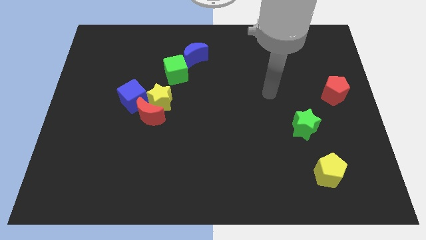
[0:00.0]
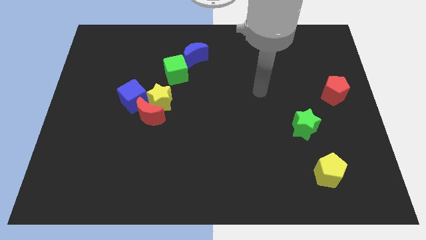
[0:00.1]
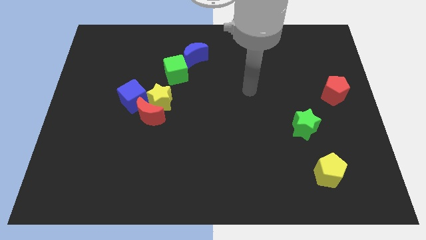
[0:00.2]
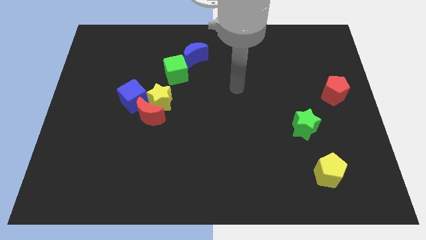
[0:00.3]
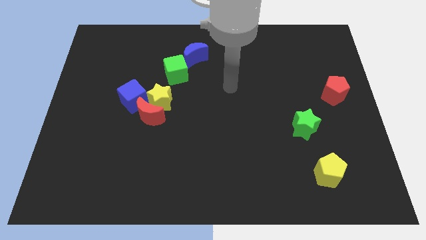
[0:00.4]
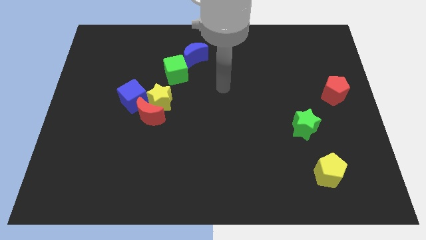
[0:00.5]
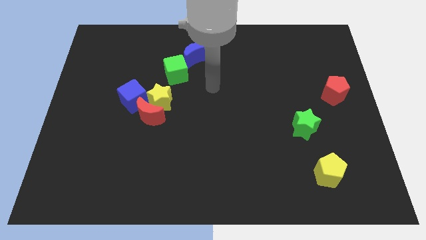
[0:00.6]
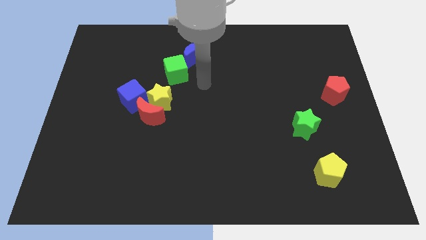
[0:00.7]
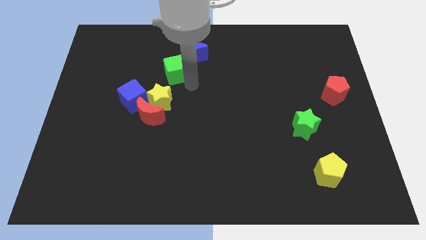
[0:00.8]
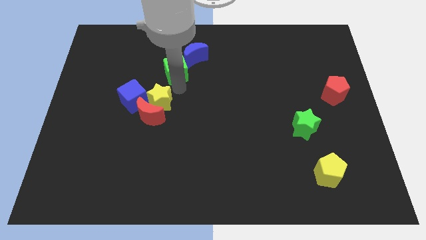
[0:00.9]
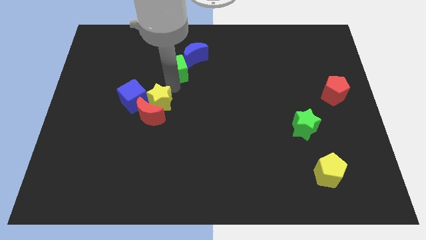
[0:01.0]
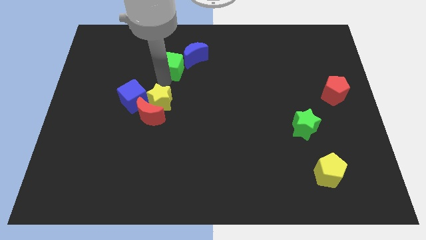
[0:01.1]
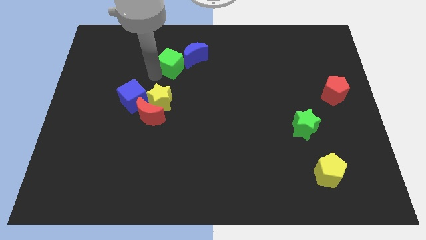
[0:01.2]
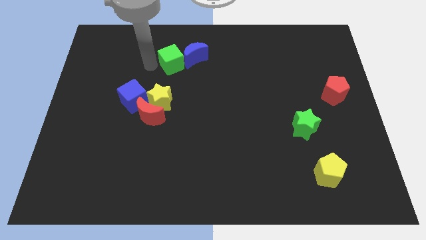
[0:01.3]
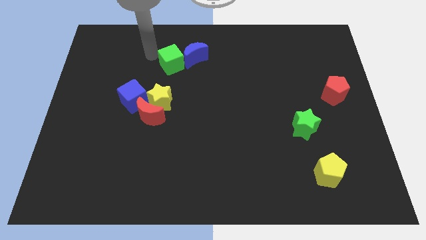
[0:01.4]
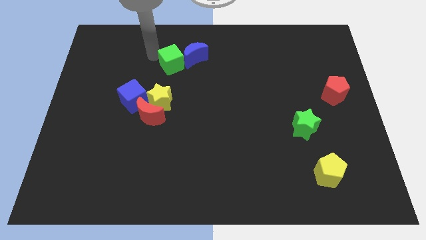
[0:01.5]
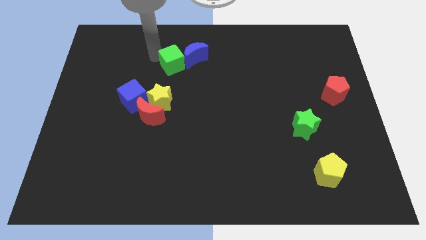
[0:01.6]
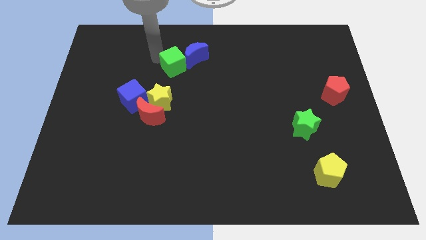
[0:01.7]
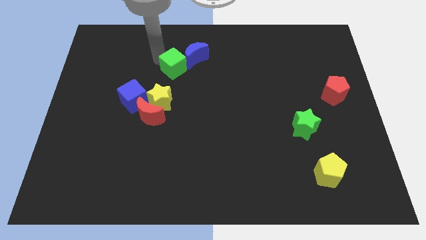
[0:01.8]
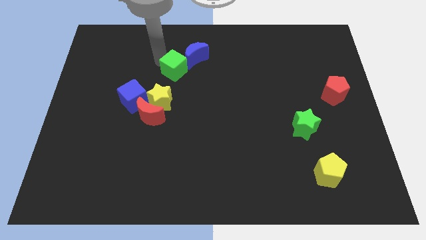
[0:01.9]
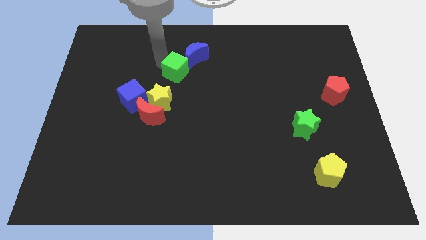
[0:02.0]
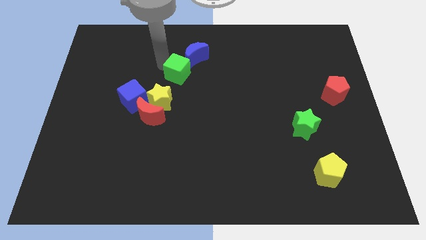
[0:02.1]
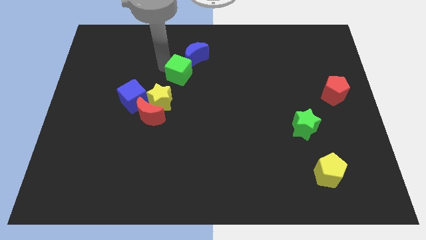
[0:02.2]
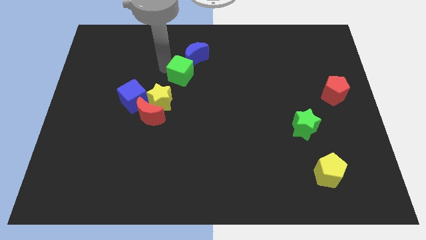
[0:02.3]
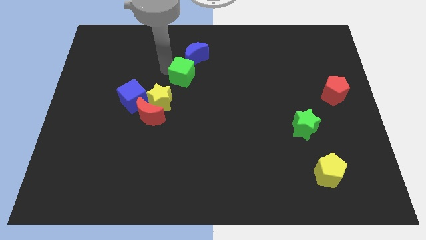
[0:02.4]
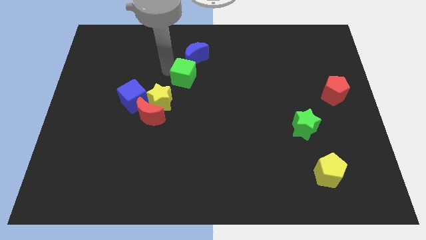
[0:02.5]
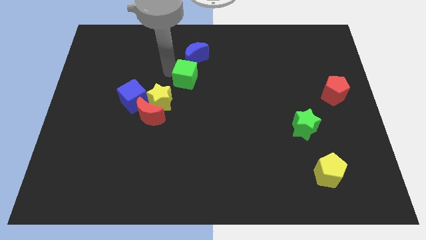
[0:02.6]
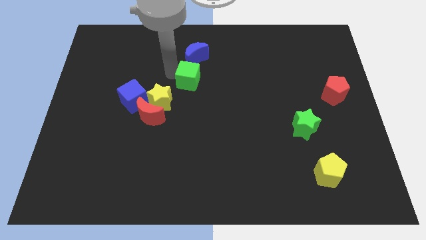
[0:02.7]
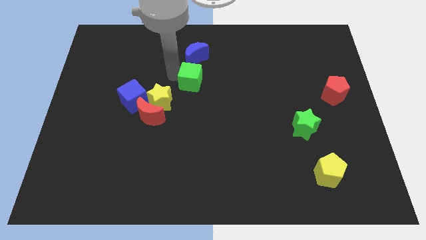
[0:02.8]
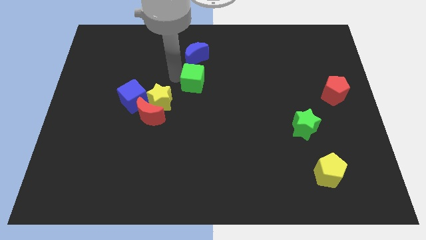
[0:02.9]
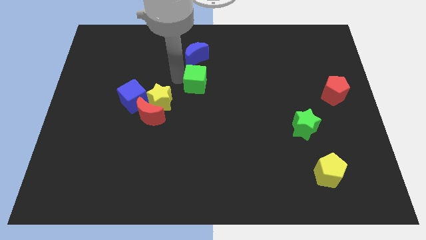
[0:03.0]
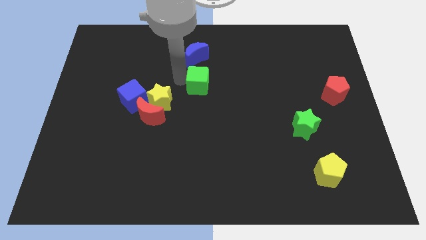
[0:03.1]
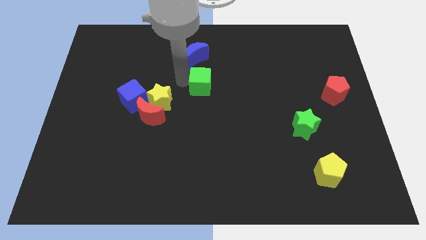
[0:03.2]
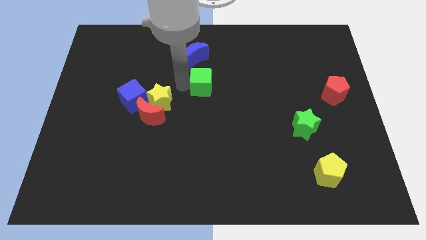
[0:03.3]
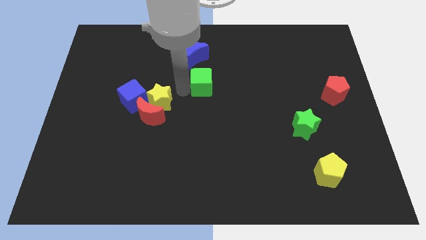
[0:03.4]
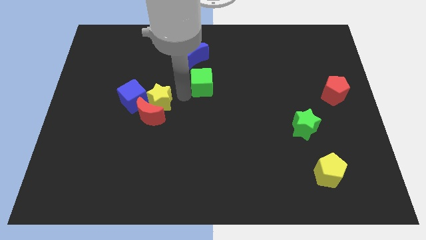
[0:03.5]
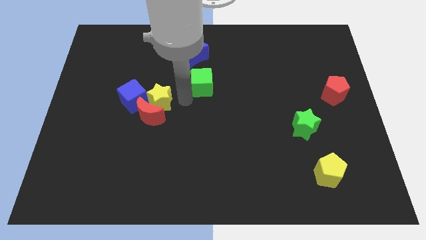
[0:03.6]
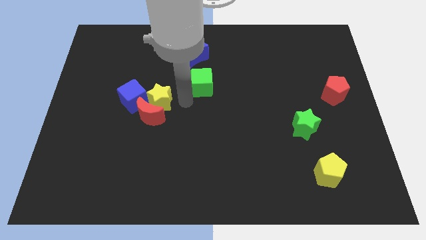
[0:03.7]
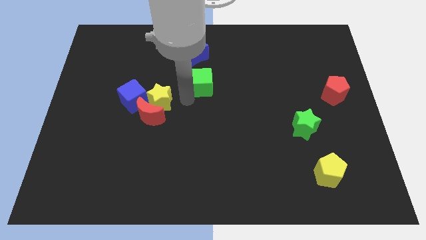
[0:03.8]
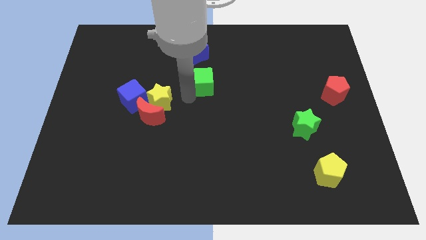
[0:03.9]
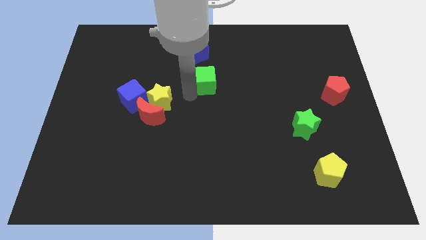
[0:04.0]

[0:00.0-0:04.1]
move the green cube a bit right

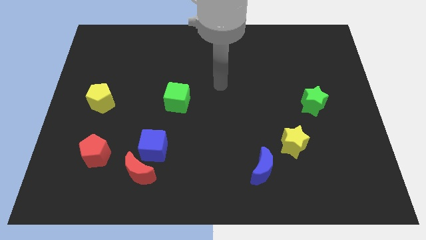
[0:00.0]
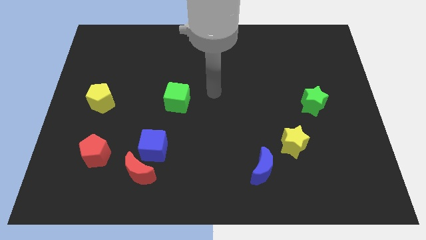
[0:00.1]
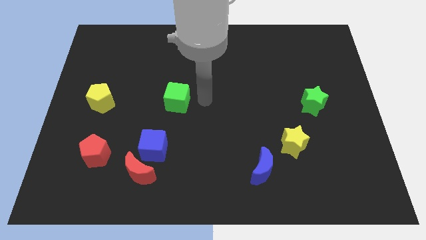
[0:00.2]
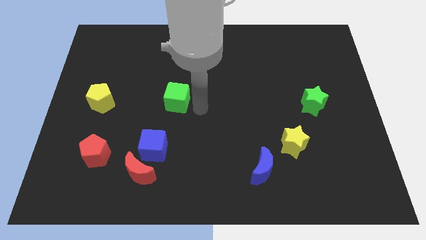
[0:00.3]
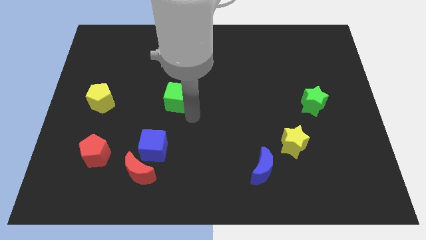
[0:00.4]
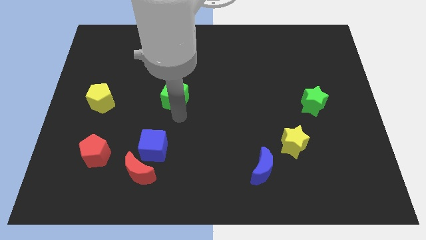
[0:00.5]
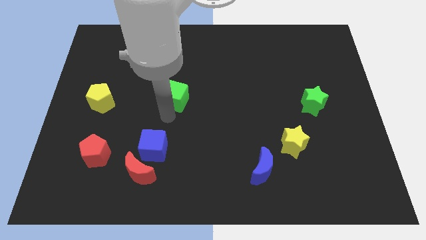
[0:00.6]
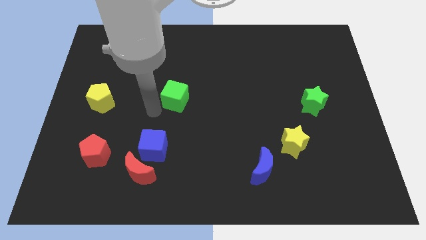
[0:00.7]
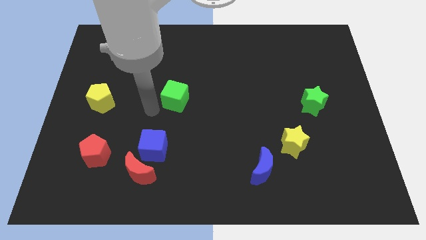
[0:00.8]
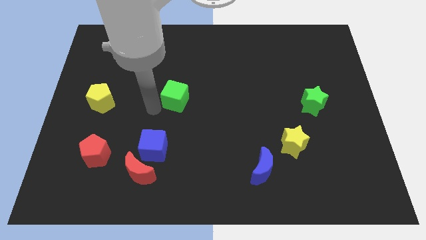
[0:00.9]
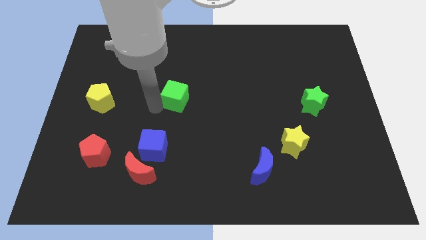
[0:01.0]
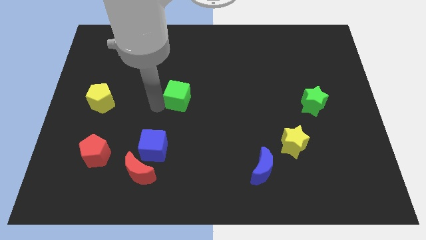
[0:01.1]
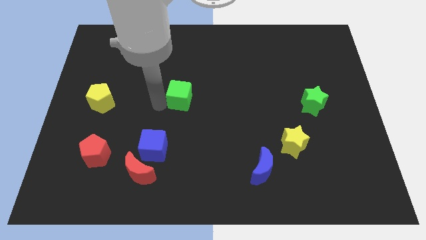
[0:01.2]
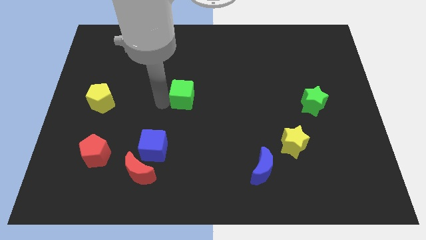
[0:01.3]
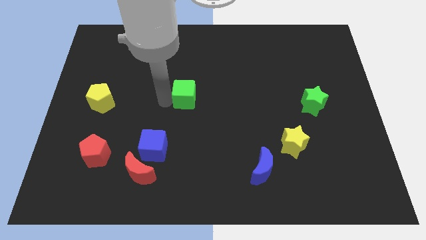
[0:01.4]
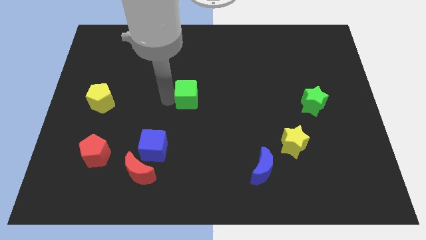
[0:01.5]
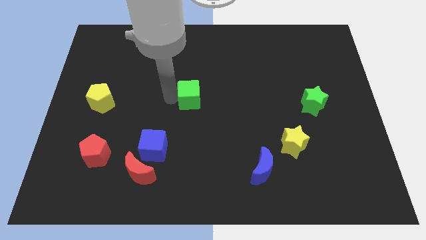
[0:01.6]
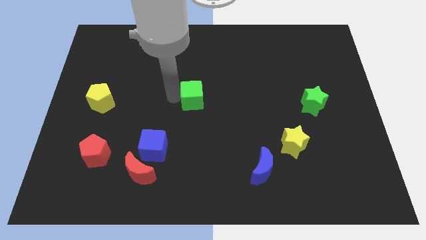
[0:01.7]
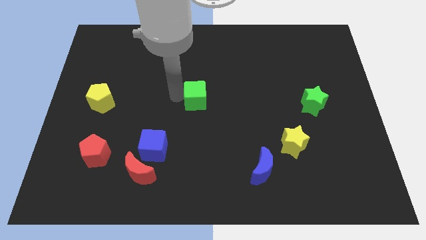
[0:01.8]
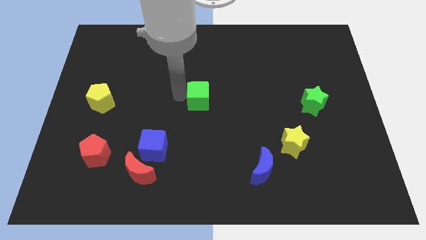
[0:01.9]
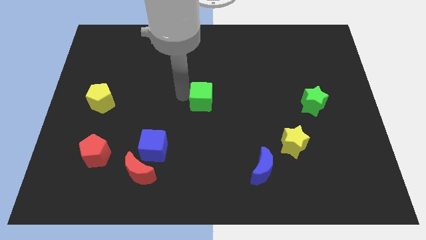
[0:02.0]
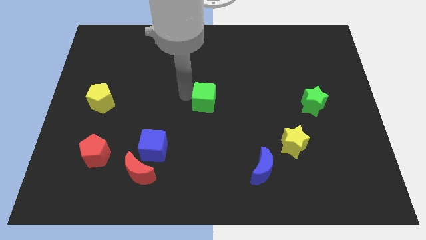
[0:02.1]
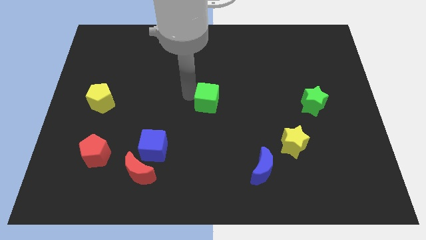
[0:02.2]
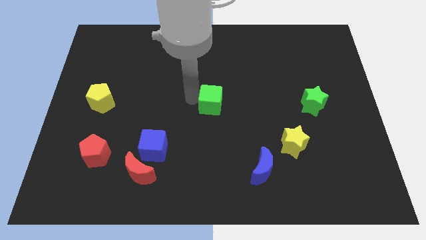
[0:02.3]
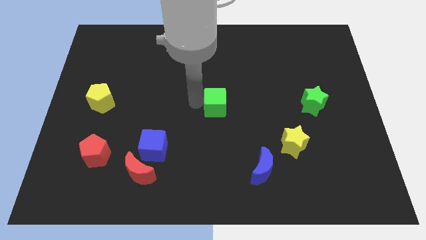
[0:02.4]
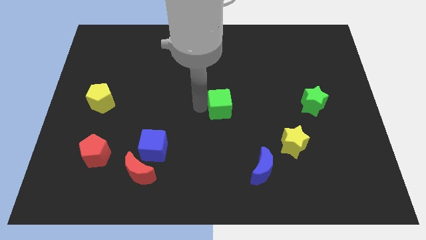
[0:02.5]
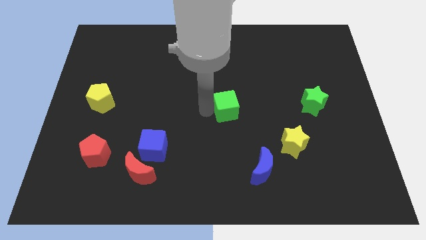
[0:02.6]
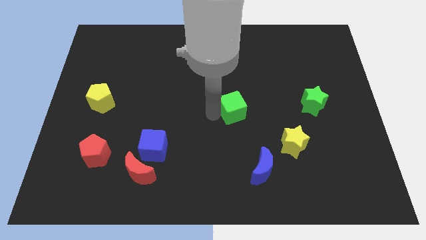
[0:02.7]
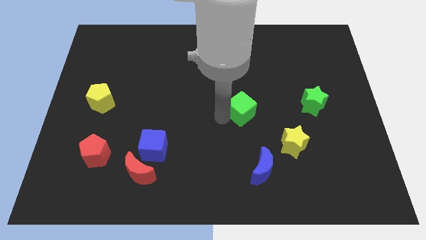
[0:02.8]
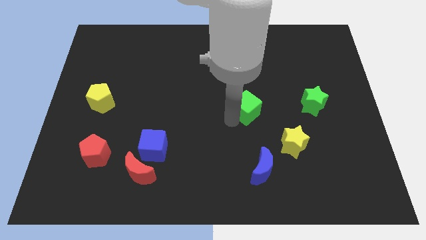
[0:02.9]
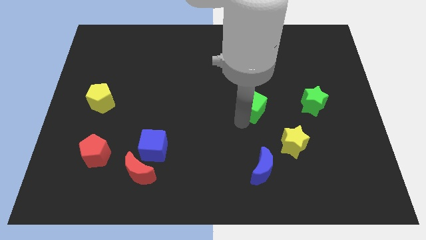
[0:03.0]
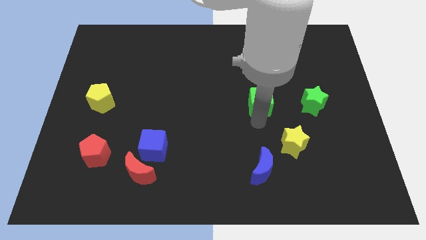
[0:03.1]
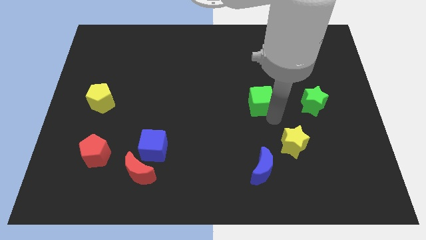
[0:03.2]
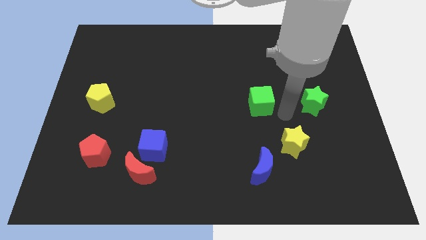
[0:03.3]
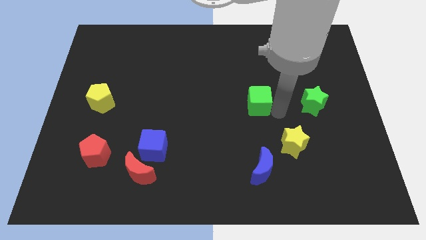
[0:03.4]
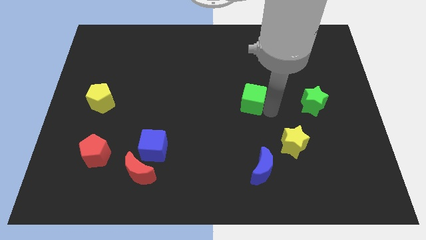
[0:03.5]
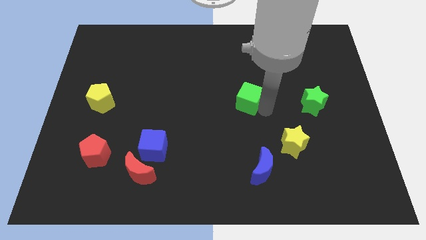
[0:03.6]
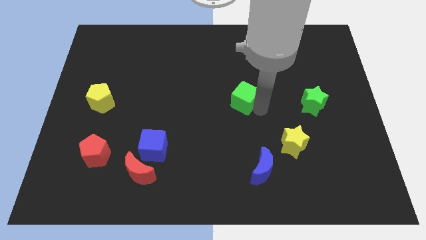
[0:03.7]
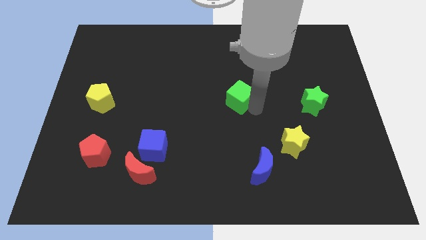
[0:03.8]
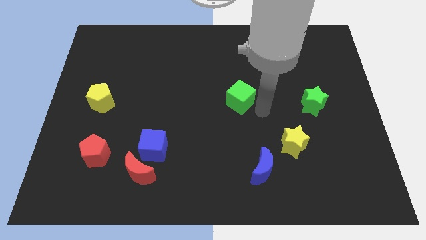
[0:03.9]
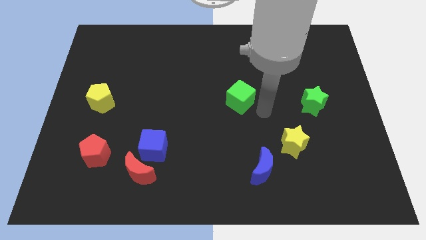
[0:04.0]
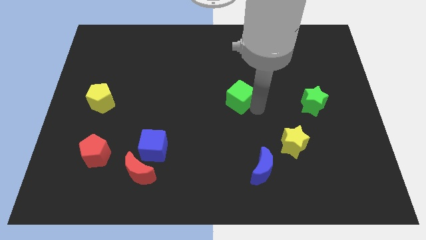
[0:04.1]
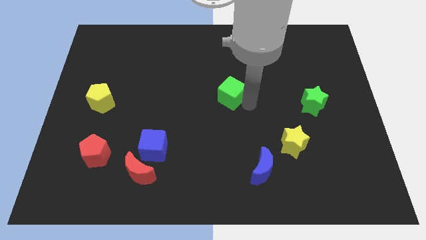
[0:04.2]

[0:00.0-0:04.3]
slide the green cube a little upwards and to the right
